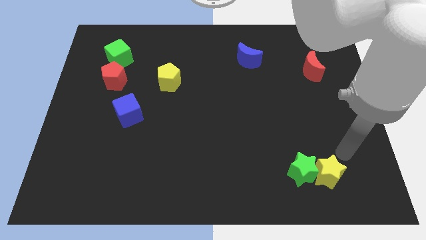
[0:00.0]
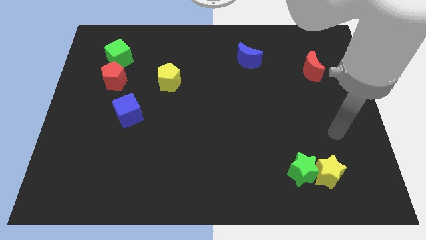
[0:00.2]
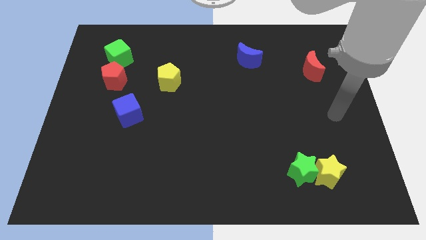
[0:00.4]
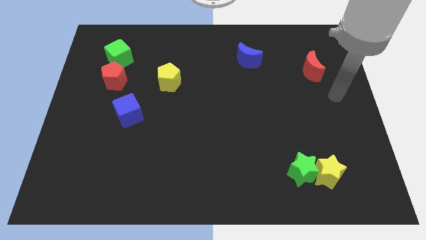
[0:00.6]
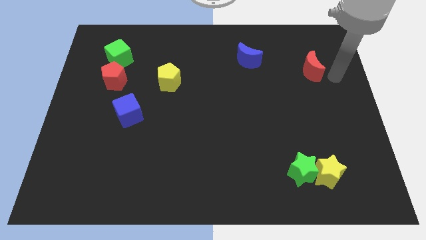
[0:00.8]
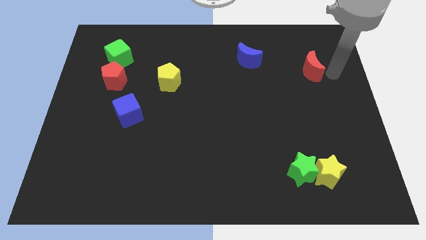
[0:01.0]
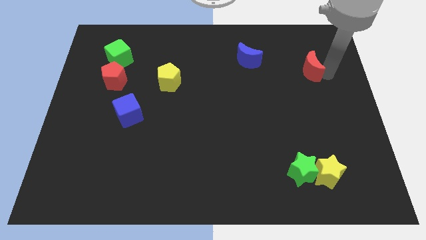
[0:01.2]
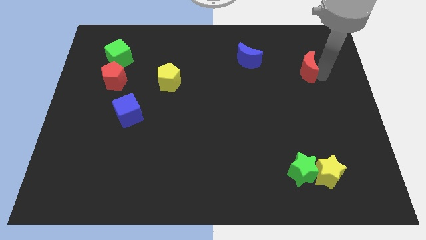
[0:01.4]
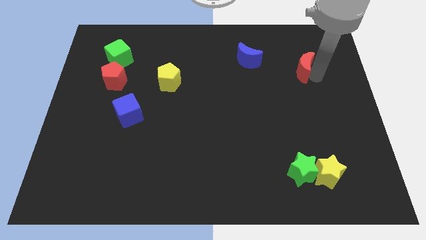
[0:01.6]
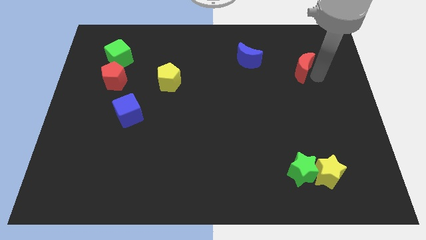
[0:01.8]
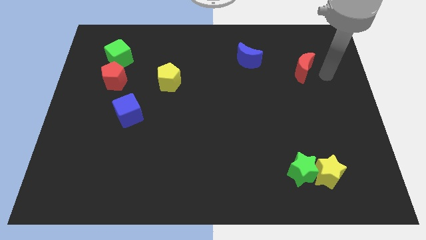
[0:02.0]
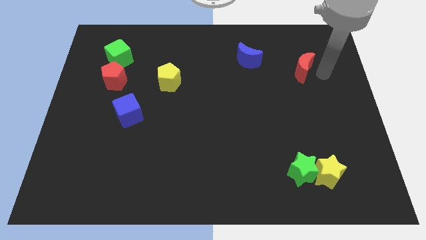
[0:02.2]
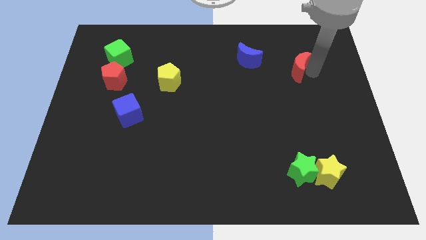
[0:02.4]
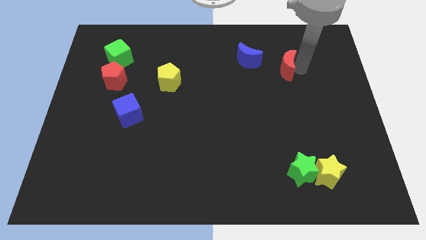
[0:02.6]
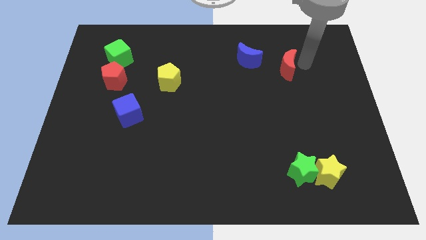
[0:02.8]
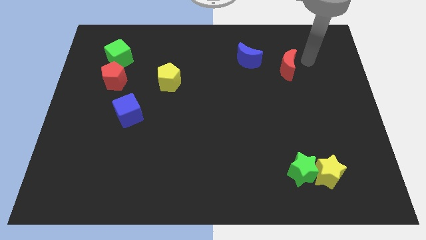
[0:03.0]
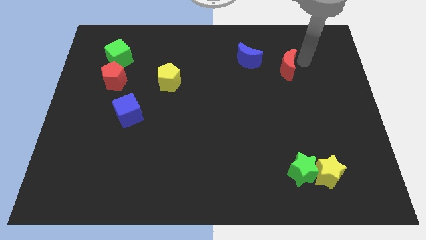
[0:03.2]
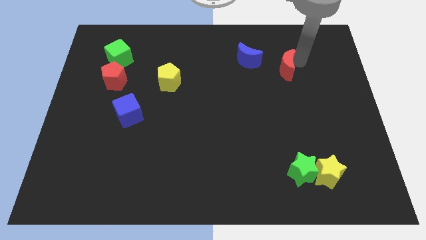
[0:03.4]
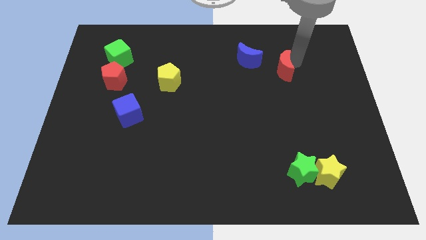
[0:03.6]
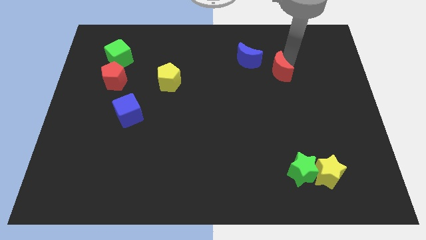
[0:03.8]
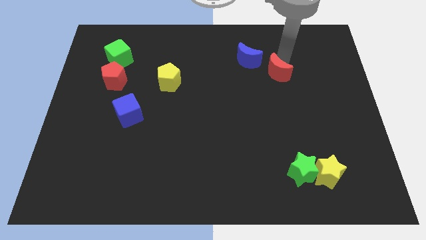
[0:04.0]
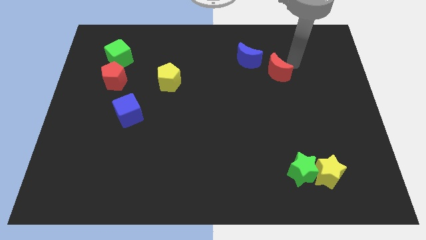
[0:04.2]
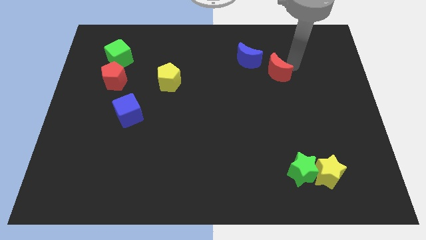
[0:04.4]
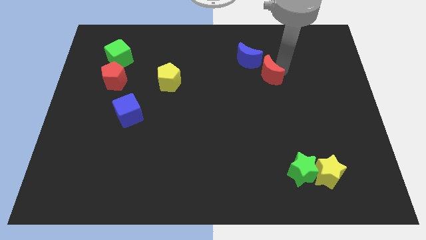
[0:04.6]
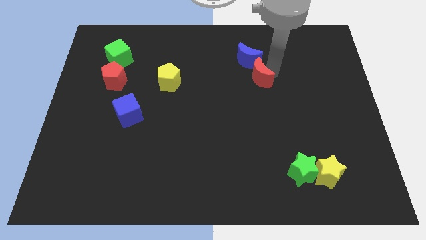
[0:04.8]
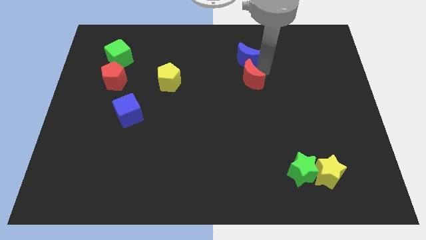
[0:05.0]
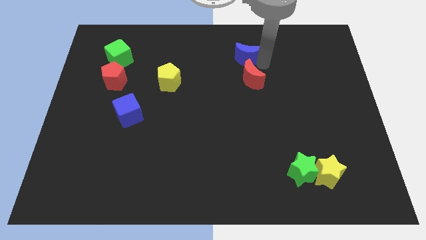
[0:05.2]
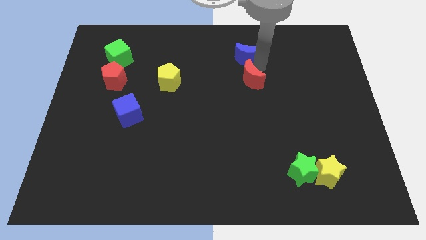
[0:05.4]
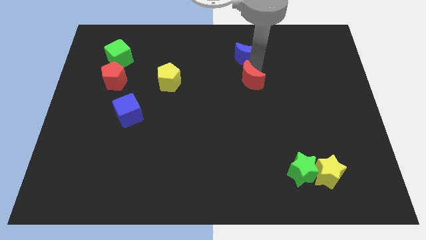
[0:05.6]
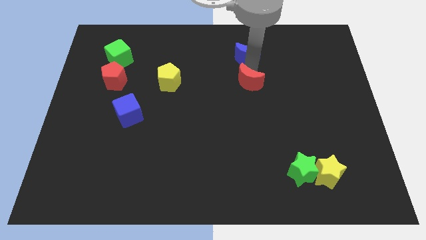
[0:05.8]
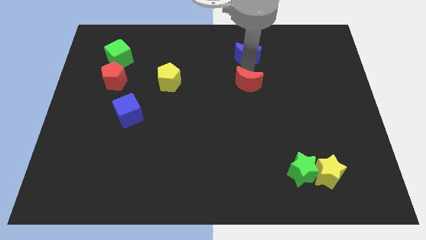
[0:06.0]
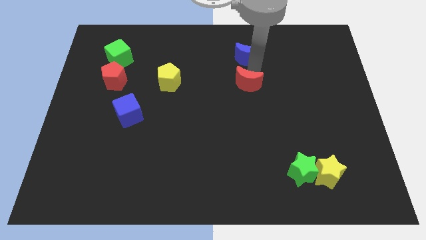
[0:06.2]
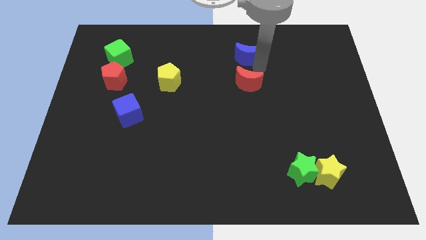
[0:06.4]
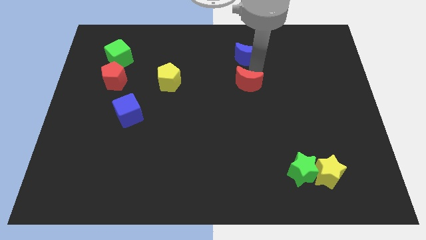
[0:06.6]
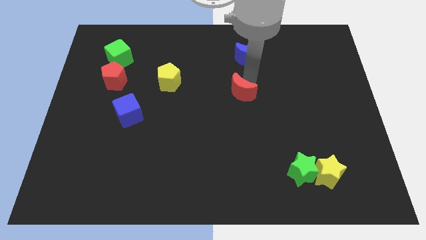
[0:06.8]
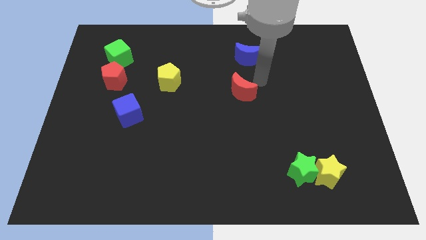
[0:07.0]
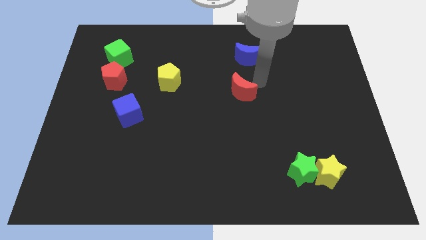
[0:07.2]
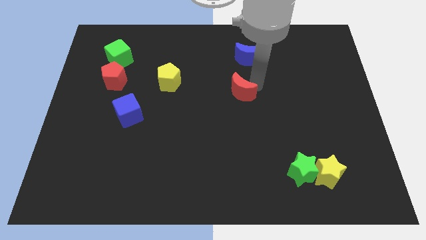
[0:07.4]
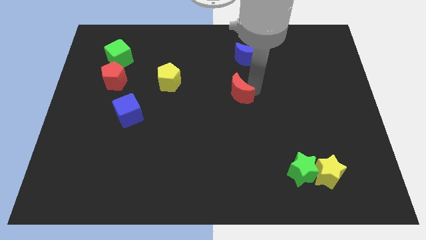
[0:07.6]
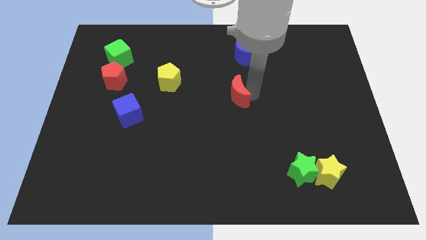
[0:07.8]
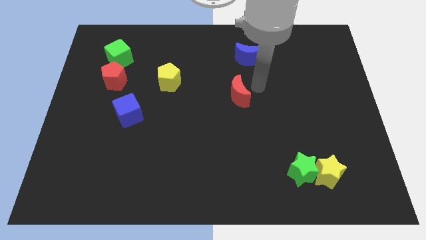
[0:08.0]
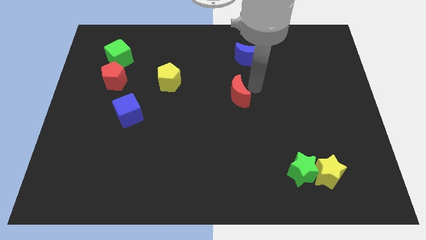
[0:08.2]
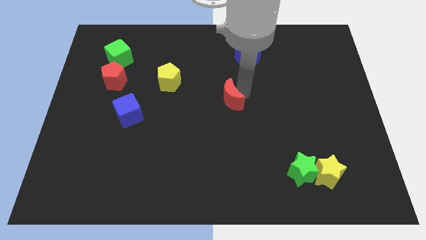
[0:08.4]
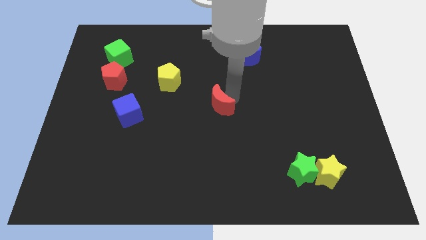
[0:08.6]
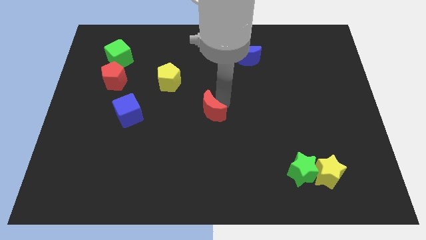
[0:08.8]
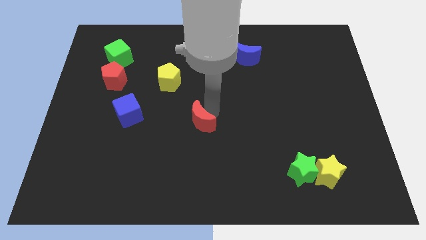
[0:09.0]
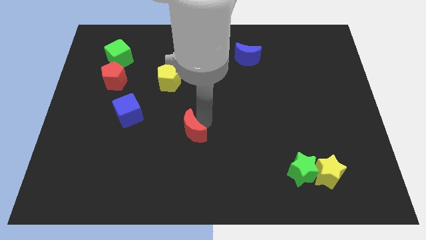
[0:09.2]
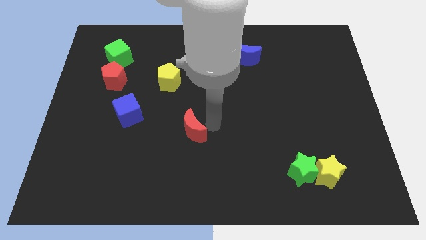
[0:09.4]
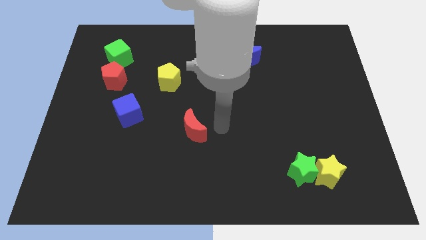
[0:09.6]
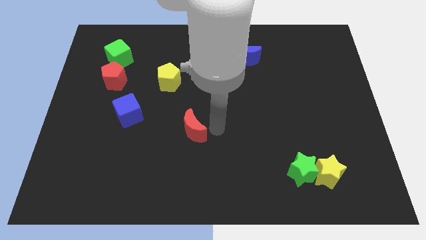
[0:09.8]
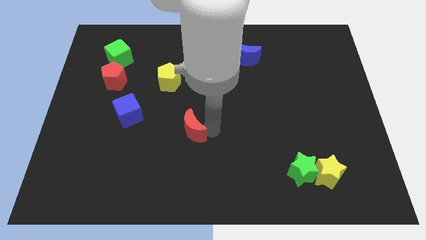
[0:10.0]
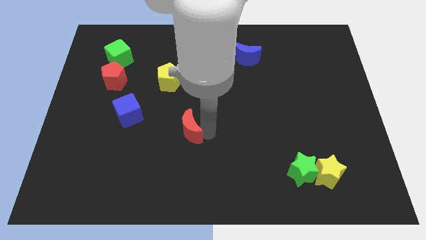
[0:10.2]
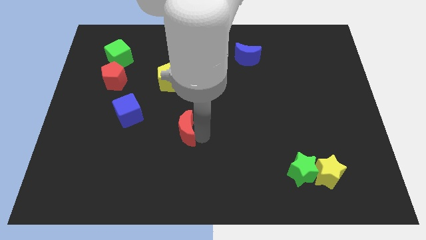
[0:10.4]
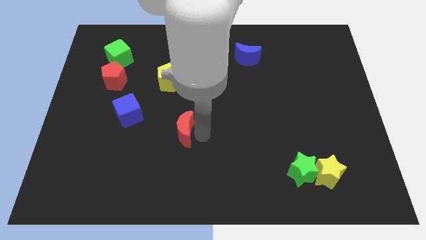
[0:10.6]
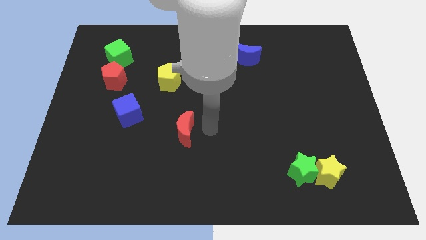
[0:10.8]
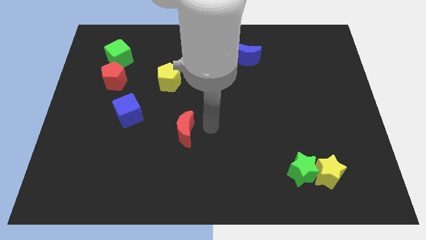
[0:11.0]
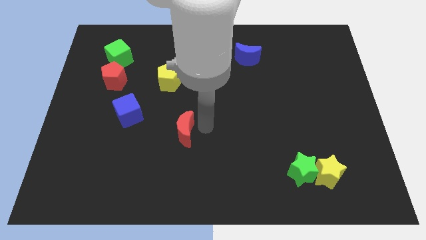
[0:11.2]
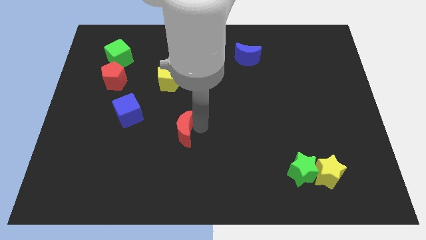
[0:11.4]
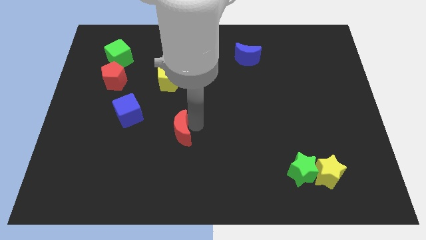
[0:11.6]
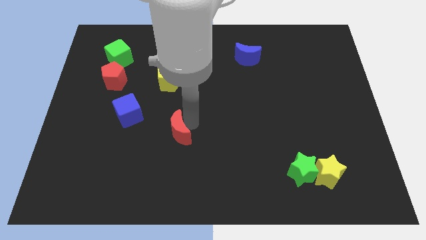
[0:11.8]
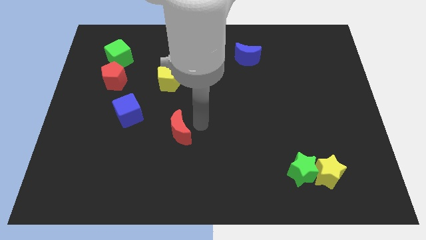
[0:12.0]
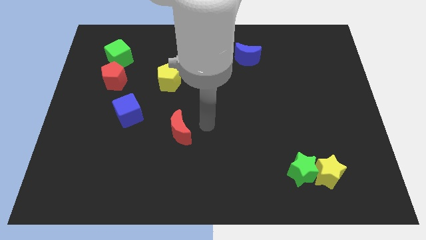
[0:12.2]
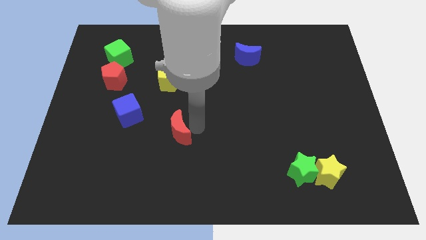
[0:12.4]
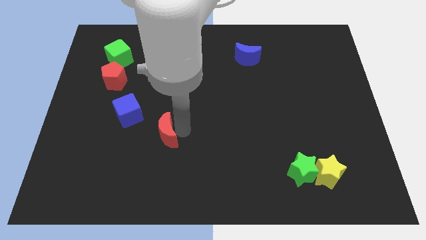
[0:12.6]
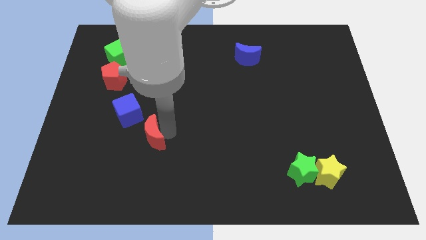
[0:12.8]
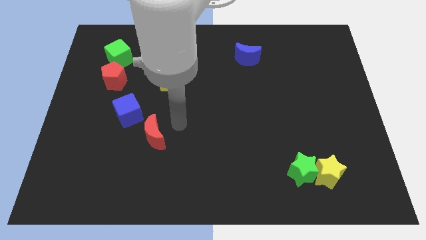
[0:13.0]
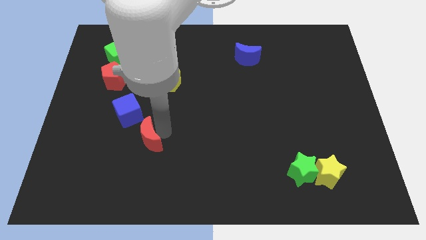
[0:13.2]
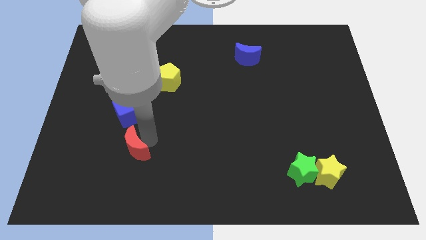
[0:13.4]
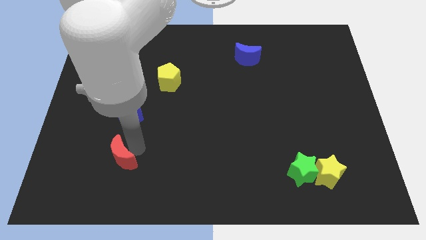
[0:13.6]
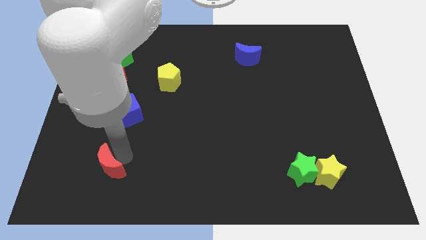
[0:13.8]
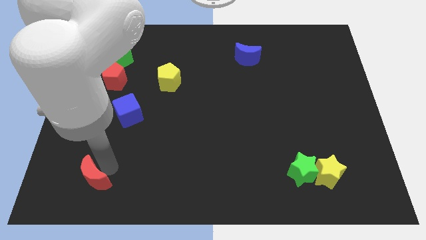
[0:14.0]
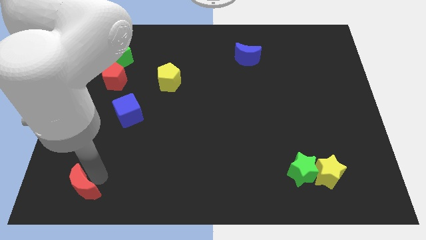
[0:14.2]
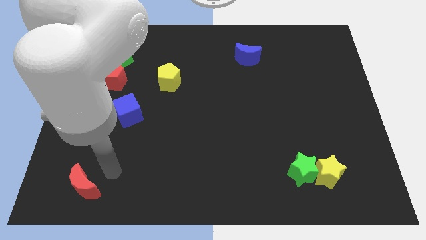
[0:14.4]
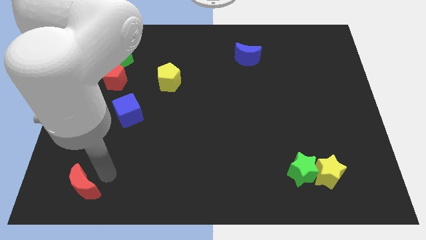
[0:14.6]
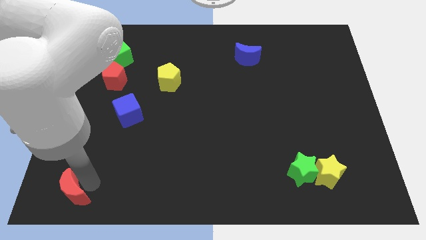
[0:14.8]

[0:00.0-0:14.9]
push the red moon to the bottom left corner
